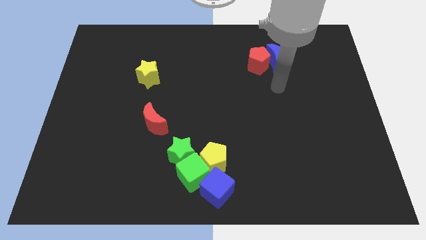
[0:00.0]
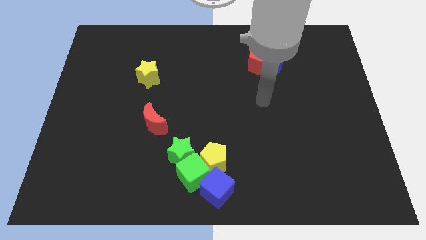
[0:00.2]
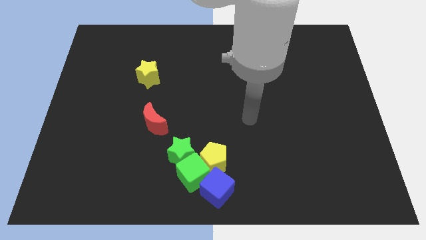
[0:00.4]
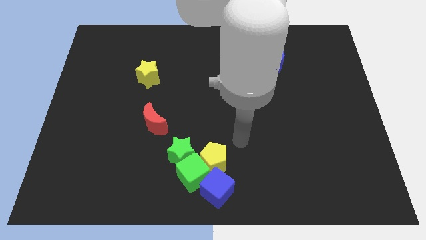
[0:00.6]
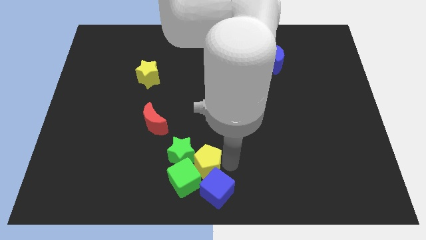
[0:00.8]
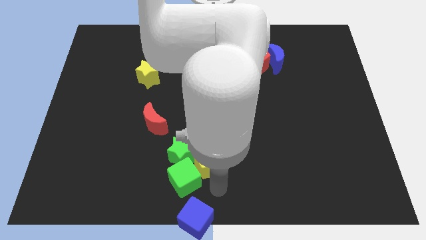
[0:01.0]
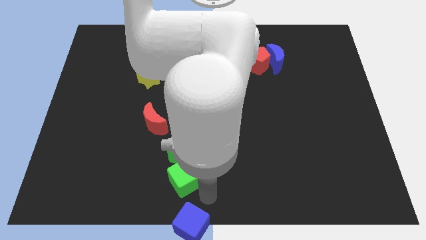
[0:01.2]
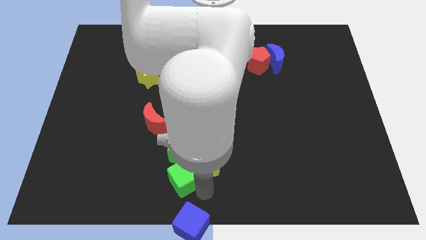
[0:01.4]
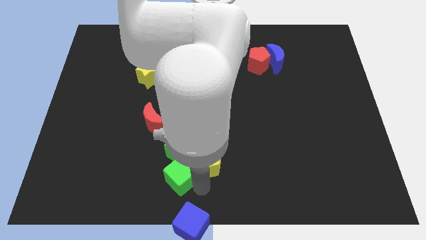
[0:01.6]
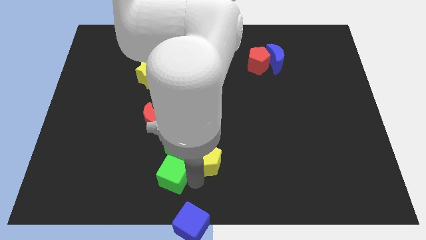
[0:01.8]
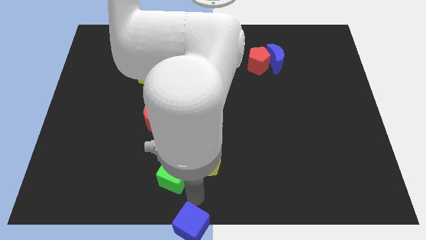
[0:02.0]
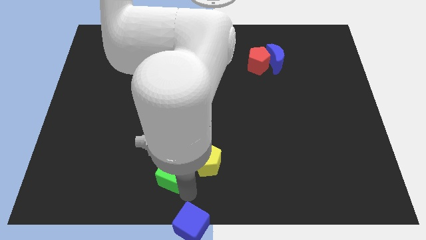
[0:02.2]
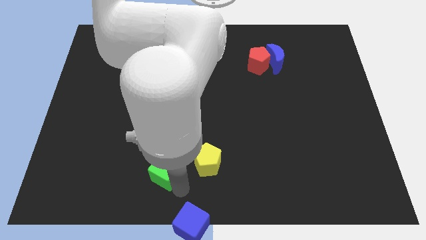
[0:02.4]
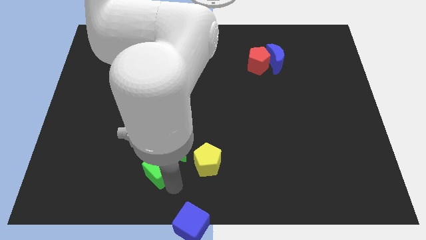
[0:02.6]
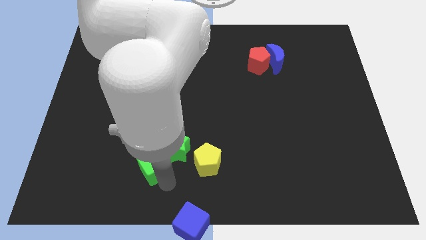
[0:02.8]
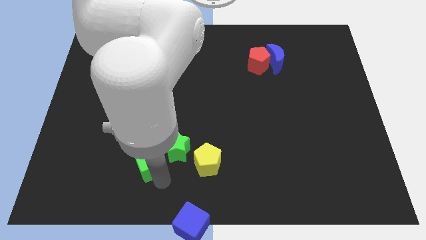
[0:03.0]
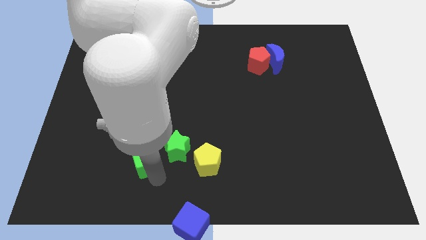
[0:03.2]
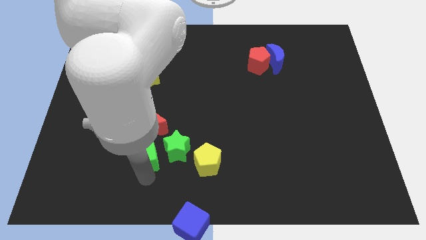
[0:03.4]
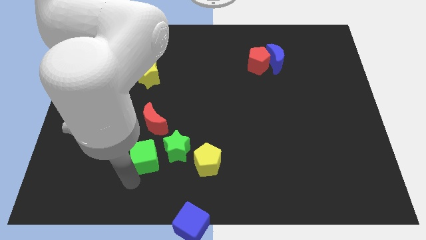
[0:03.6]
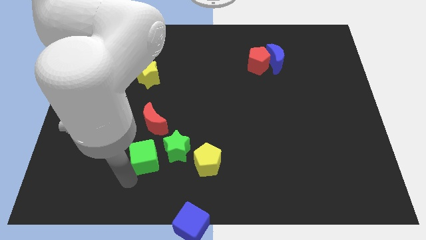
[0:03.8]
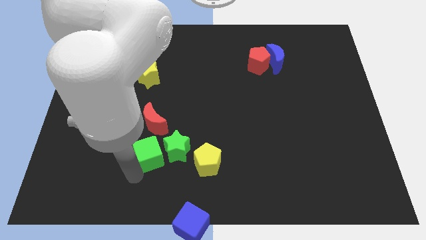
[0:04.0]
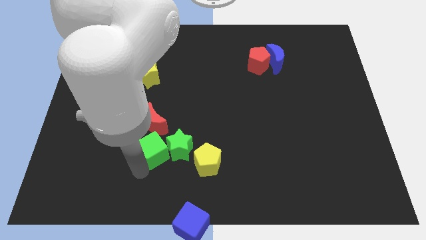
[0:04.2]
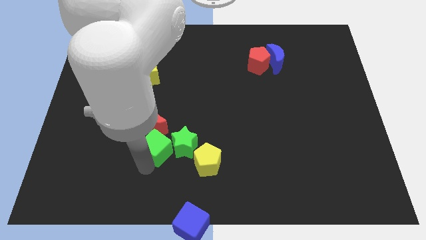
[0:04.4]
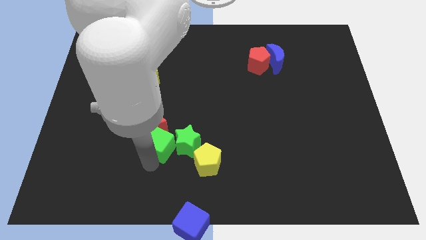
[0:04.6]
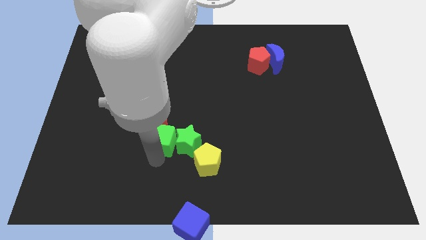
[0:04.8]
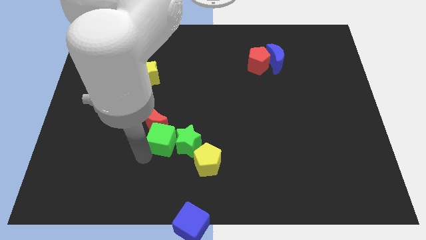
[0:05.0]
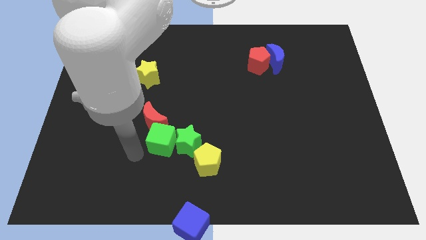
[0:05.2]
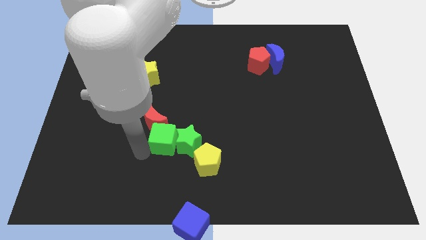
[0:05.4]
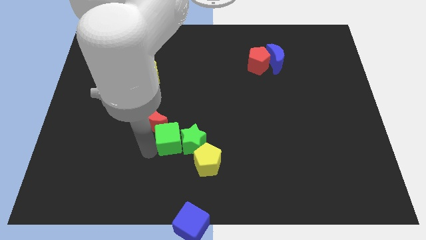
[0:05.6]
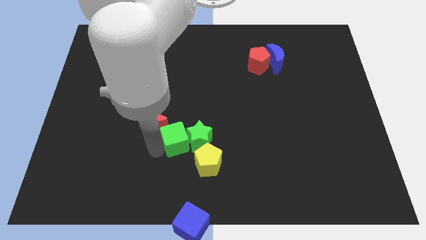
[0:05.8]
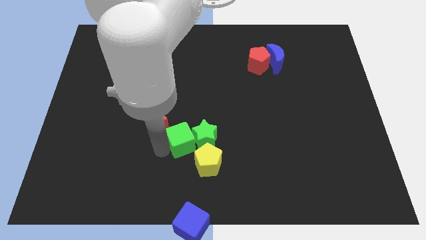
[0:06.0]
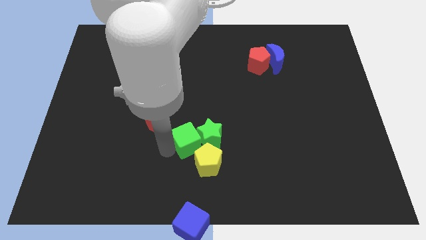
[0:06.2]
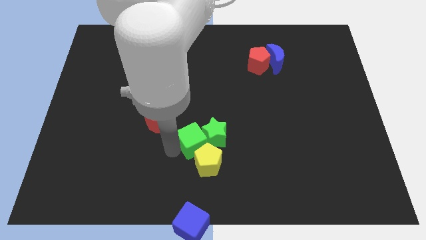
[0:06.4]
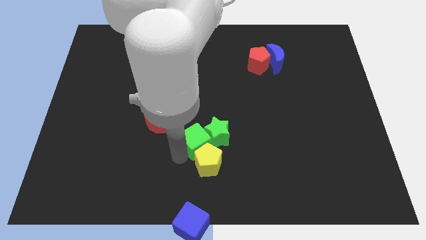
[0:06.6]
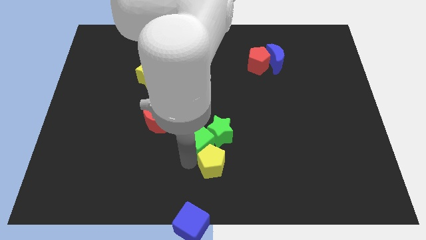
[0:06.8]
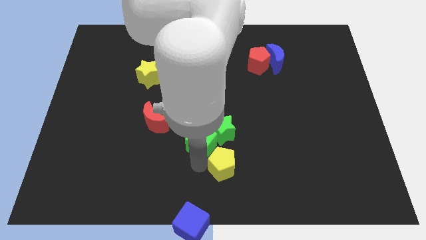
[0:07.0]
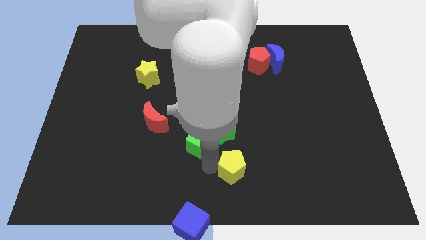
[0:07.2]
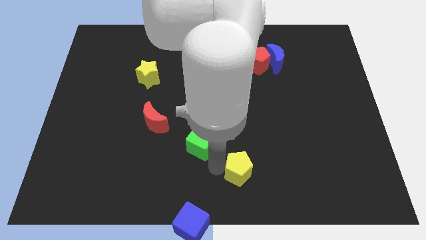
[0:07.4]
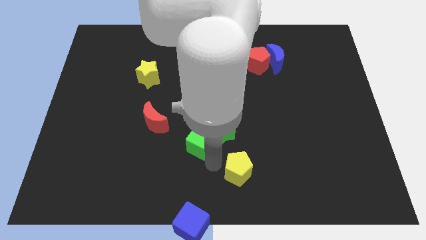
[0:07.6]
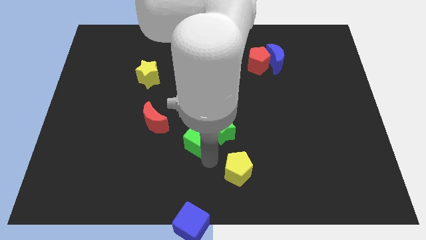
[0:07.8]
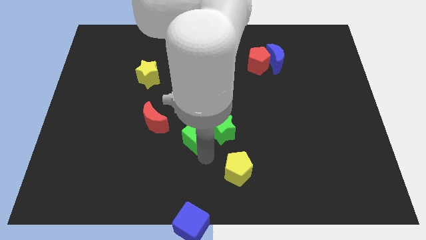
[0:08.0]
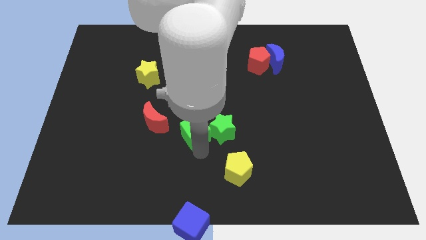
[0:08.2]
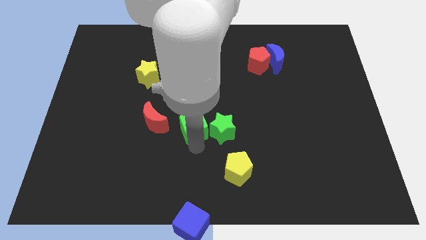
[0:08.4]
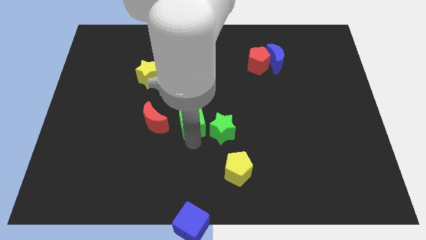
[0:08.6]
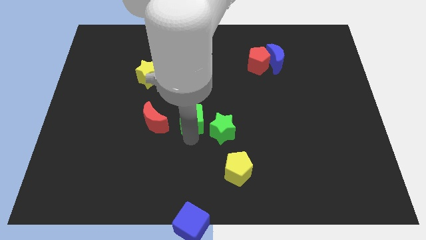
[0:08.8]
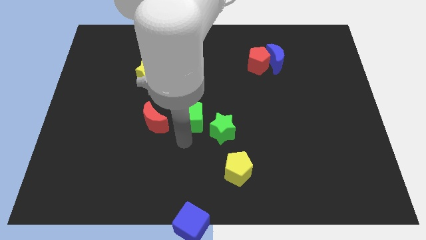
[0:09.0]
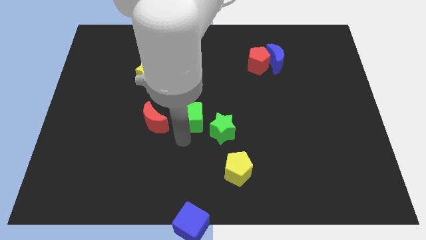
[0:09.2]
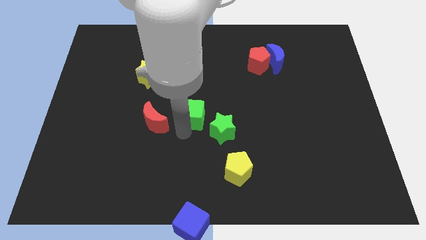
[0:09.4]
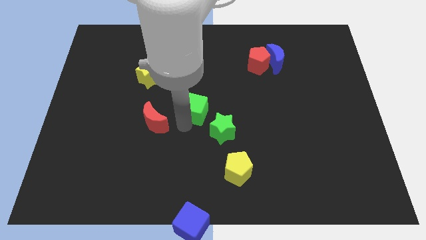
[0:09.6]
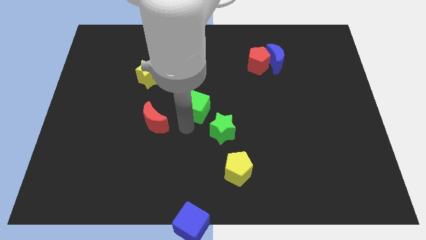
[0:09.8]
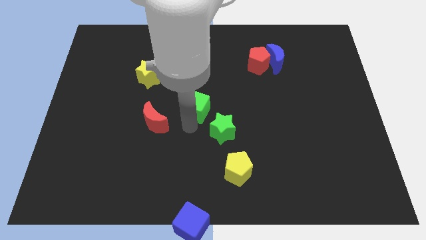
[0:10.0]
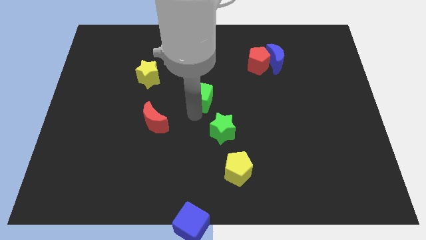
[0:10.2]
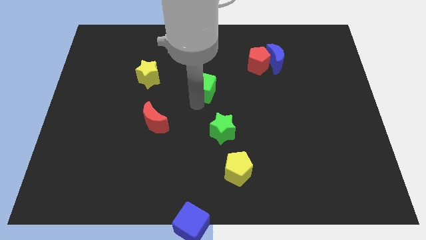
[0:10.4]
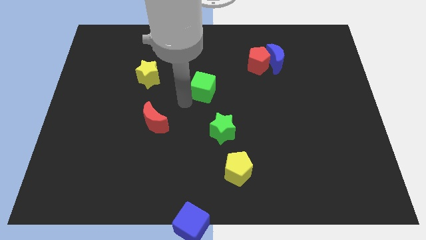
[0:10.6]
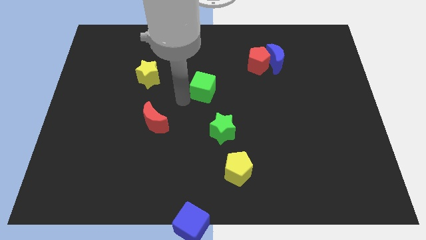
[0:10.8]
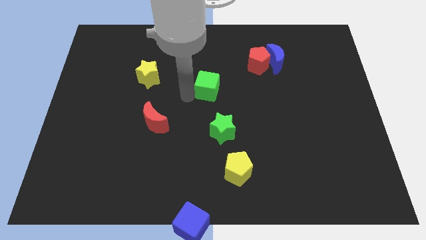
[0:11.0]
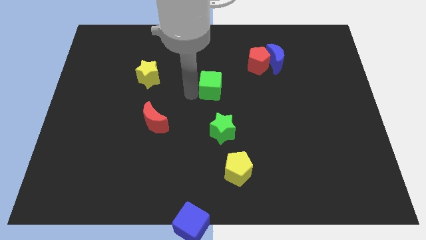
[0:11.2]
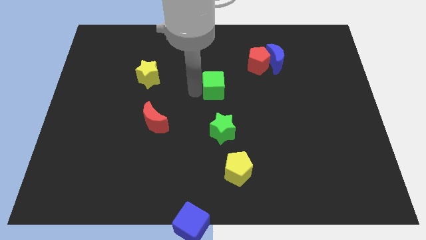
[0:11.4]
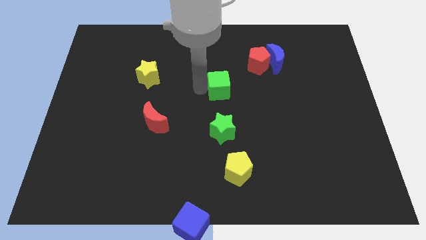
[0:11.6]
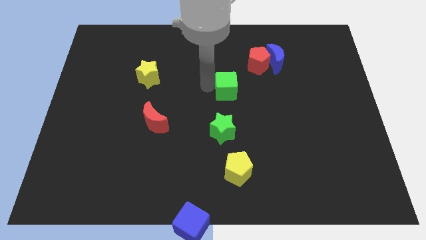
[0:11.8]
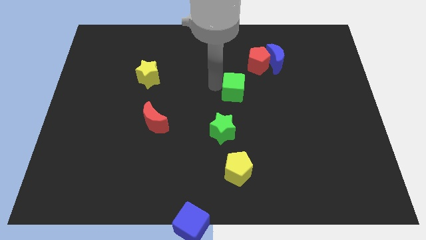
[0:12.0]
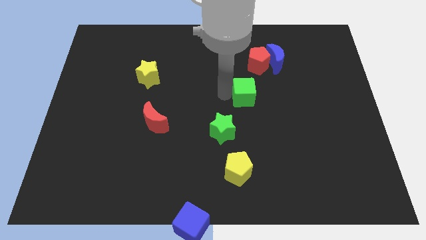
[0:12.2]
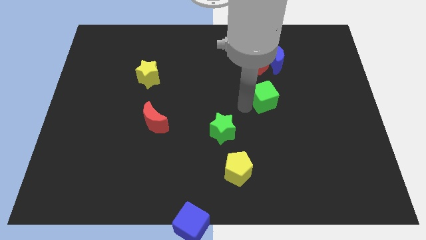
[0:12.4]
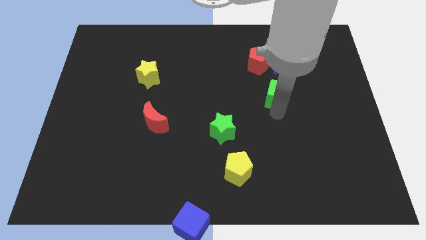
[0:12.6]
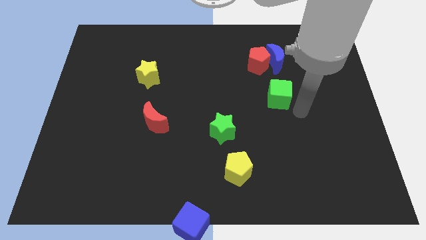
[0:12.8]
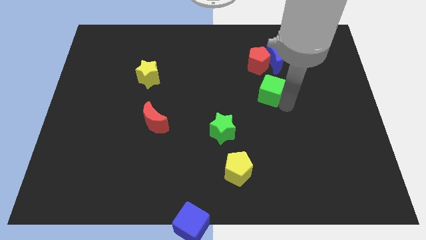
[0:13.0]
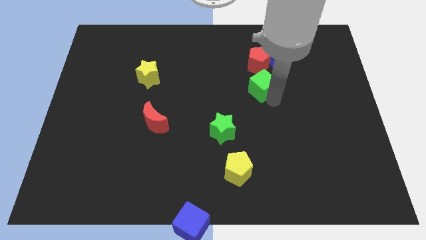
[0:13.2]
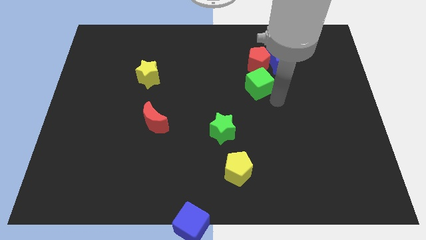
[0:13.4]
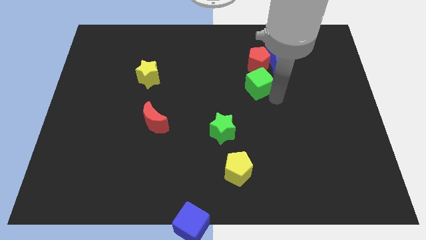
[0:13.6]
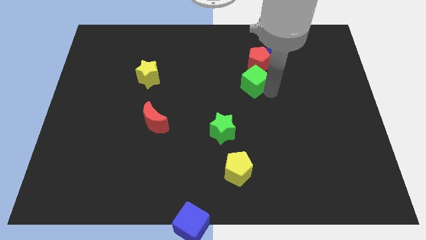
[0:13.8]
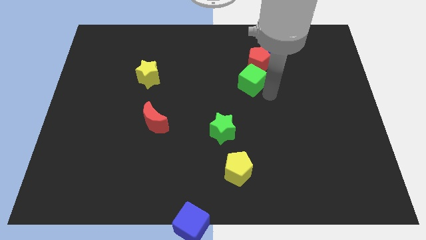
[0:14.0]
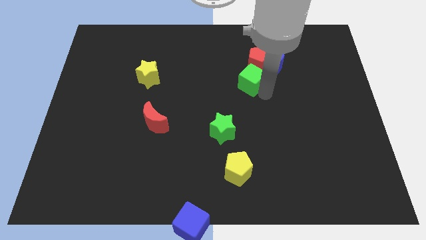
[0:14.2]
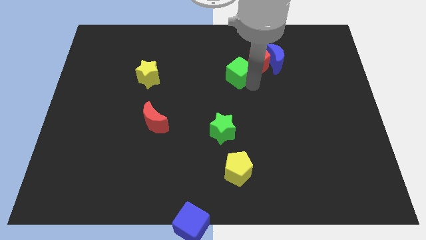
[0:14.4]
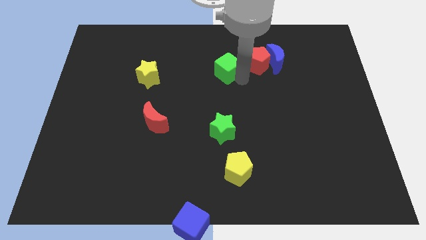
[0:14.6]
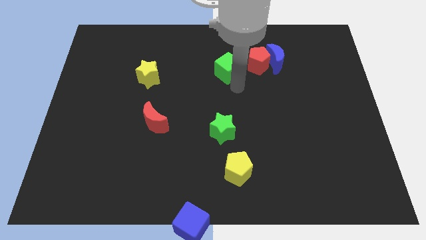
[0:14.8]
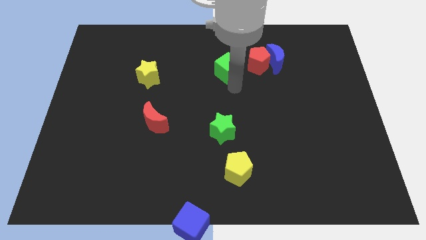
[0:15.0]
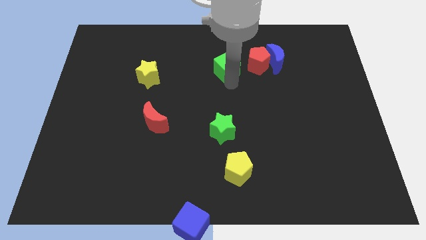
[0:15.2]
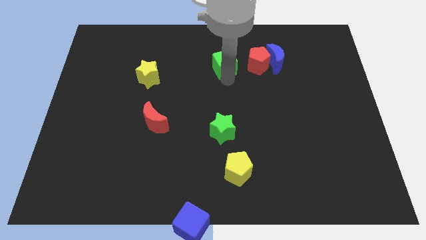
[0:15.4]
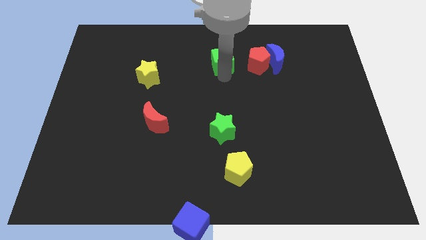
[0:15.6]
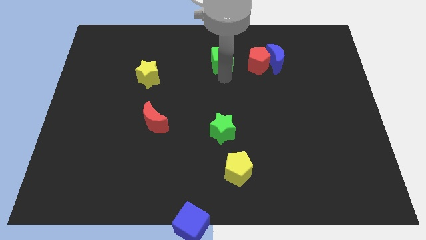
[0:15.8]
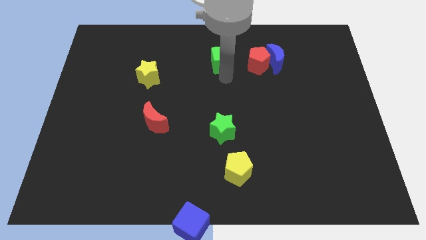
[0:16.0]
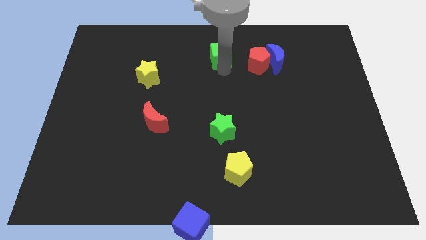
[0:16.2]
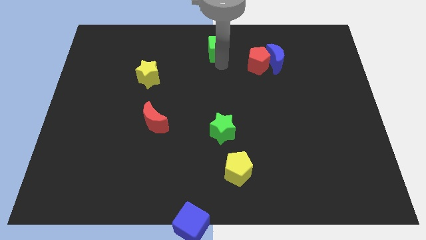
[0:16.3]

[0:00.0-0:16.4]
put the green cube to the top
